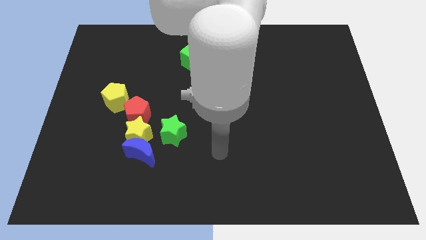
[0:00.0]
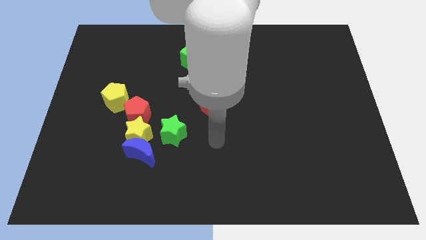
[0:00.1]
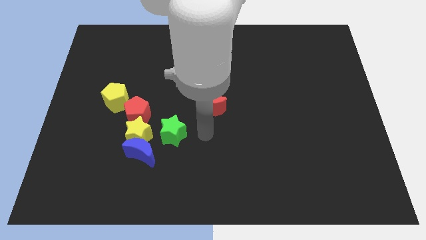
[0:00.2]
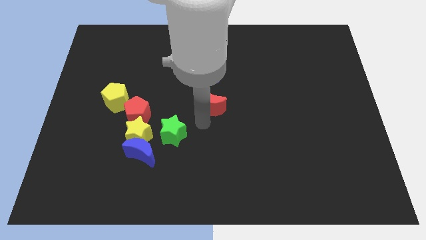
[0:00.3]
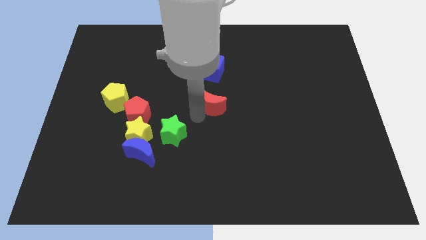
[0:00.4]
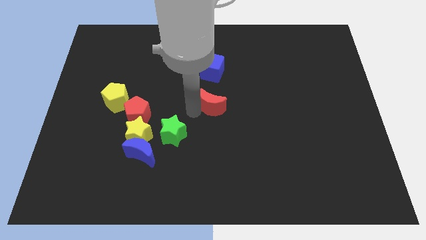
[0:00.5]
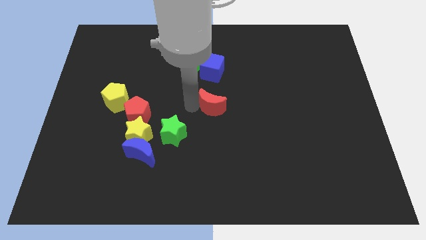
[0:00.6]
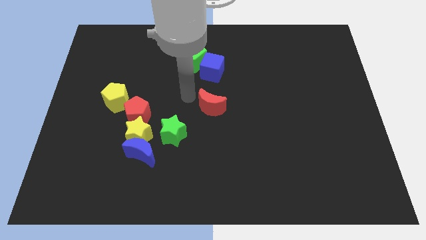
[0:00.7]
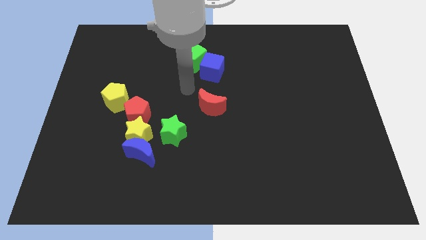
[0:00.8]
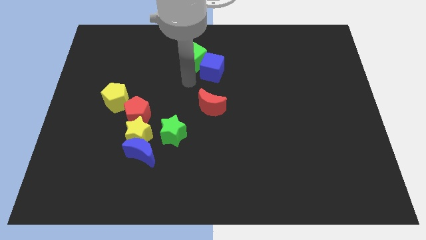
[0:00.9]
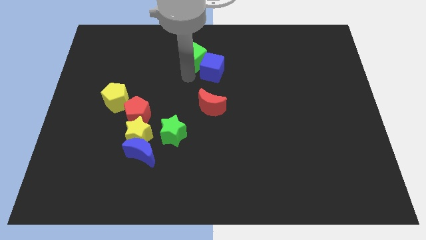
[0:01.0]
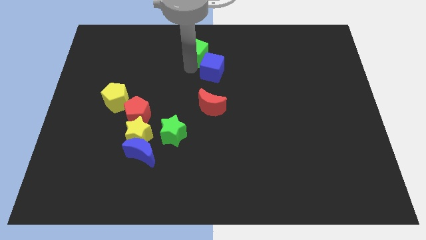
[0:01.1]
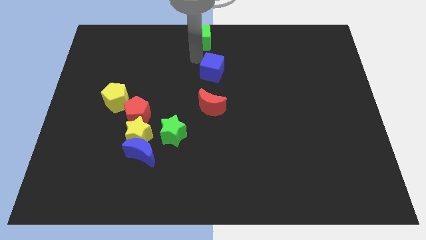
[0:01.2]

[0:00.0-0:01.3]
move the blue cube away from the green cube

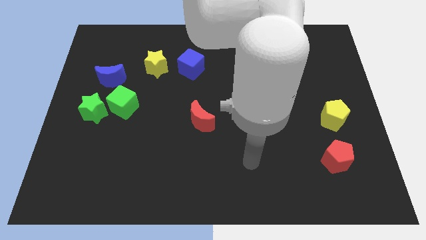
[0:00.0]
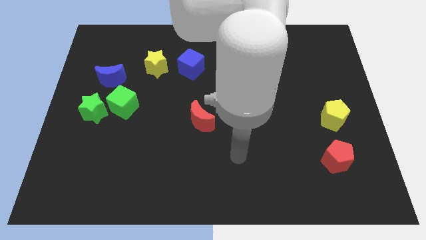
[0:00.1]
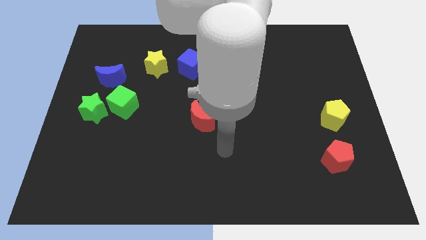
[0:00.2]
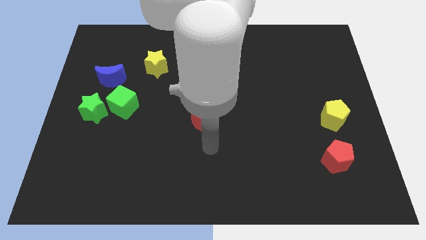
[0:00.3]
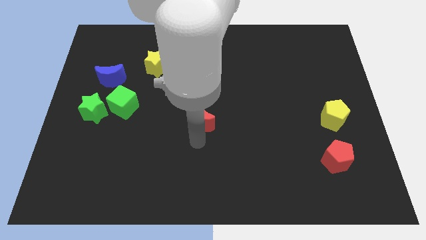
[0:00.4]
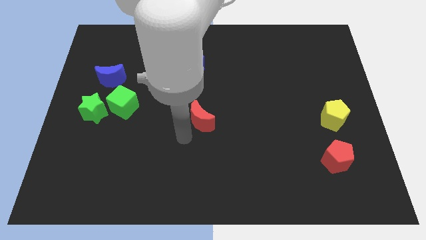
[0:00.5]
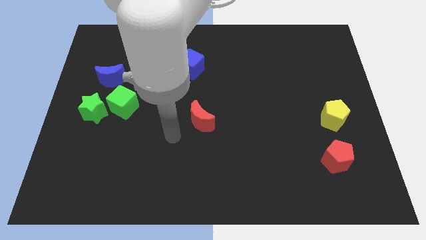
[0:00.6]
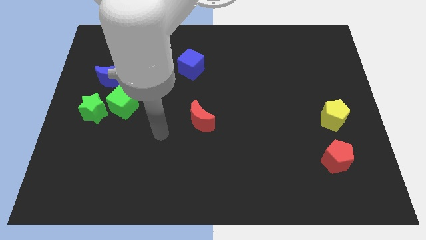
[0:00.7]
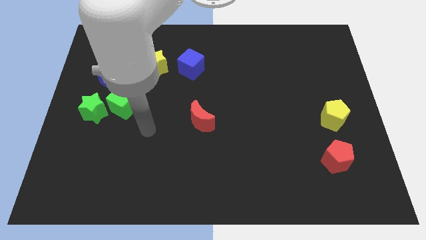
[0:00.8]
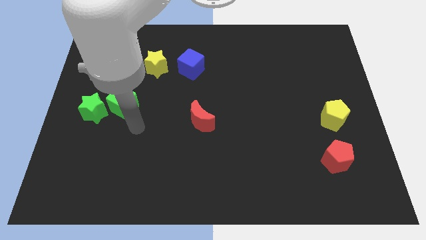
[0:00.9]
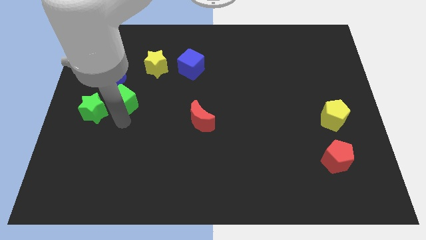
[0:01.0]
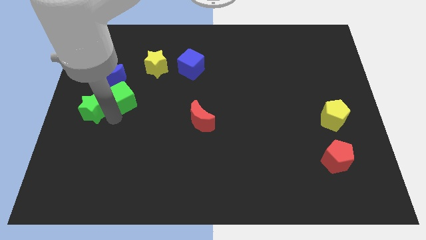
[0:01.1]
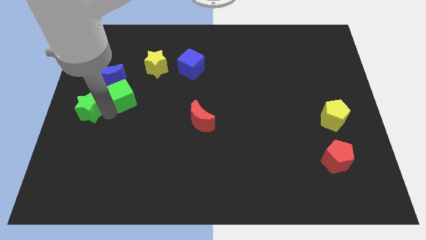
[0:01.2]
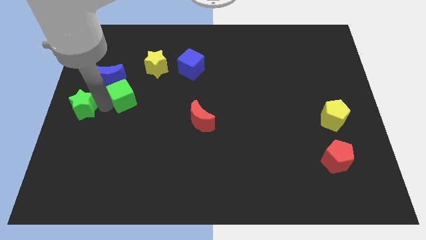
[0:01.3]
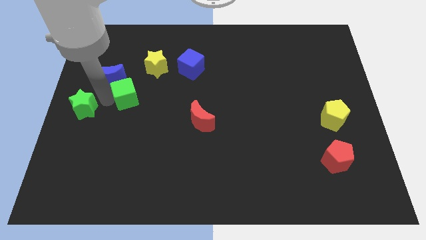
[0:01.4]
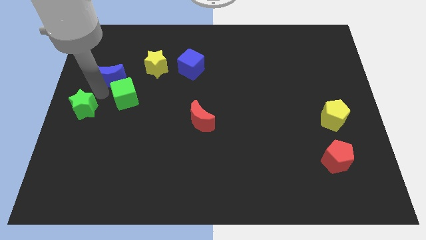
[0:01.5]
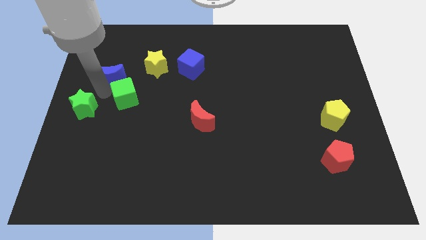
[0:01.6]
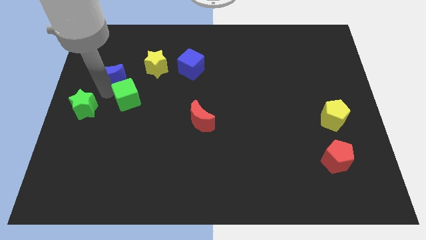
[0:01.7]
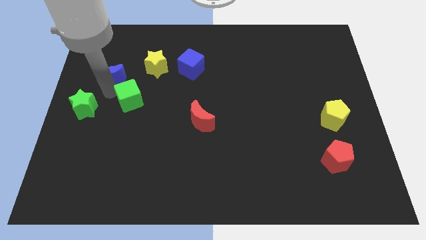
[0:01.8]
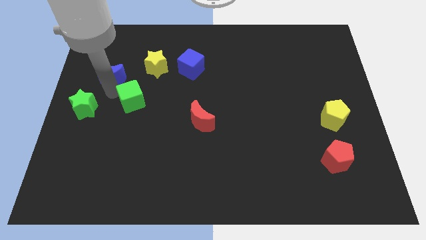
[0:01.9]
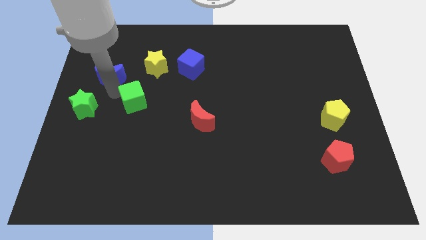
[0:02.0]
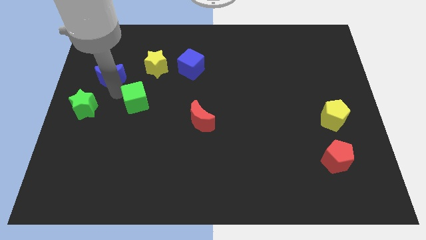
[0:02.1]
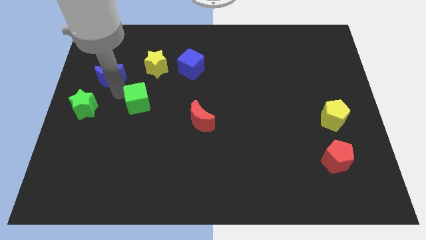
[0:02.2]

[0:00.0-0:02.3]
separate the green cube from the green star and blue moon

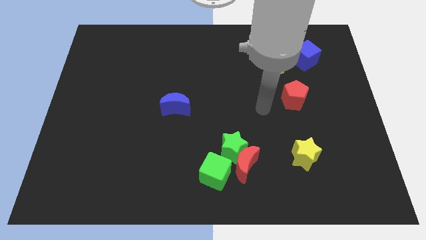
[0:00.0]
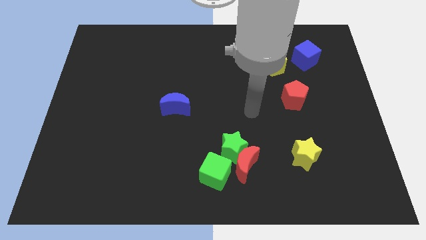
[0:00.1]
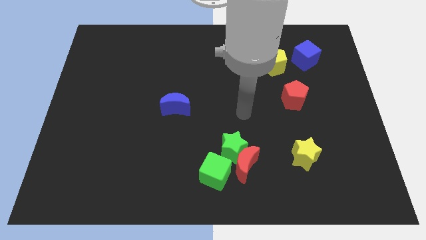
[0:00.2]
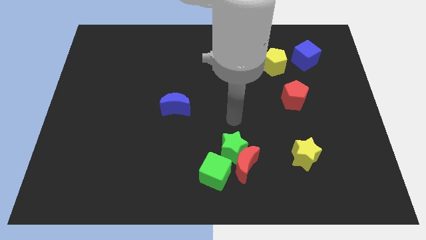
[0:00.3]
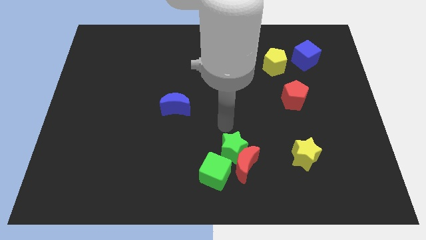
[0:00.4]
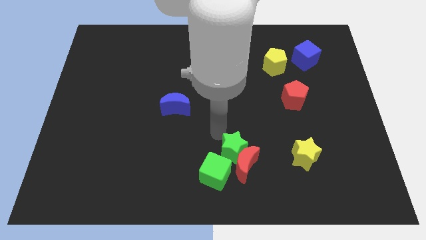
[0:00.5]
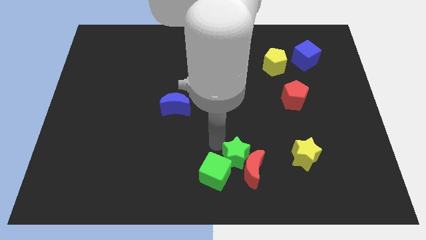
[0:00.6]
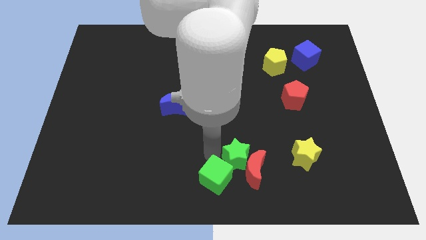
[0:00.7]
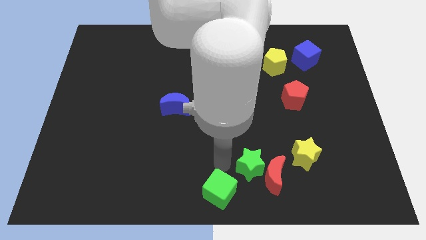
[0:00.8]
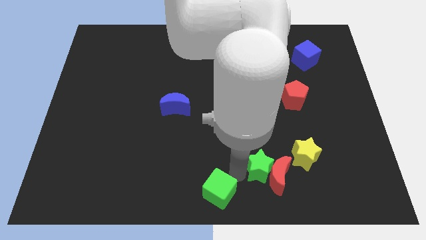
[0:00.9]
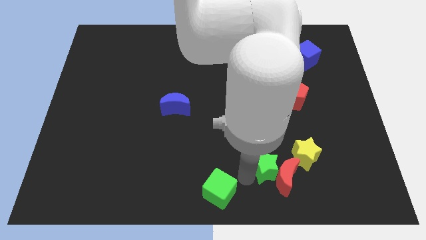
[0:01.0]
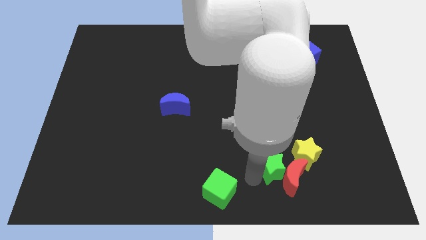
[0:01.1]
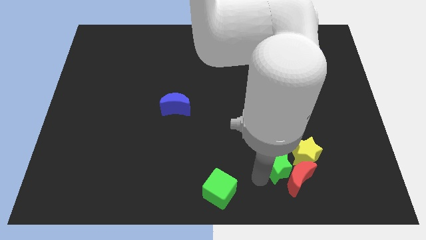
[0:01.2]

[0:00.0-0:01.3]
pull the red moon apart from the green star and green cube

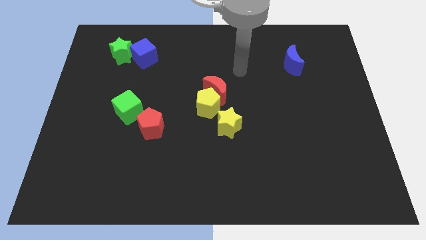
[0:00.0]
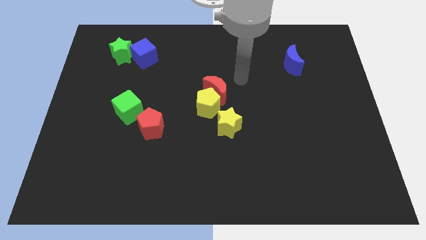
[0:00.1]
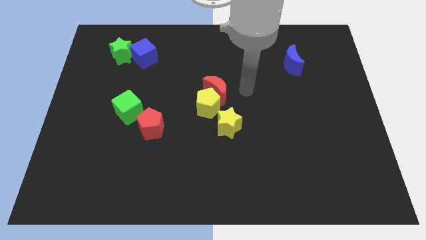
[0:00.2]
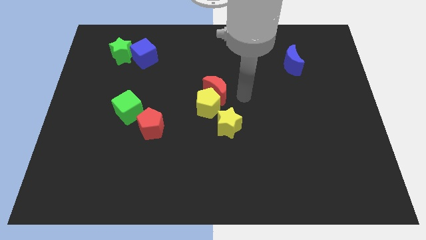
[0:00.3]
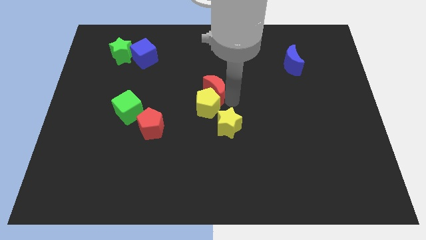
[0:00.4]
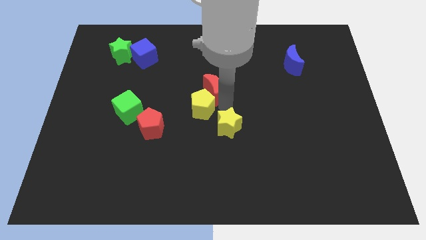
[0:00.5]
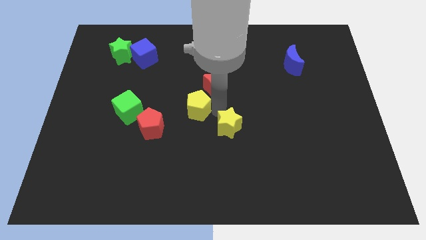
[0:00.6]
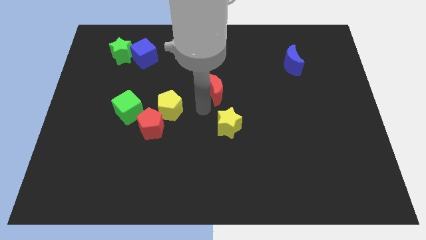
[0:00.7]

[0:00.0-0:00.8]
pull the red moon apart from the yellow pentagon

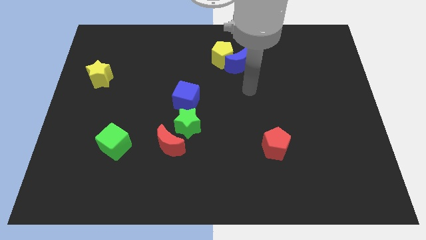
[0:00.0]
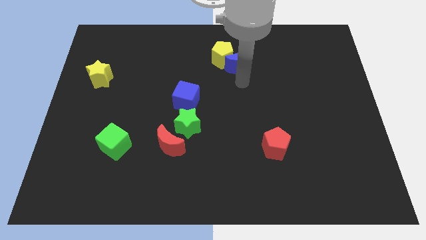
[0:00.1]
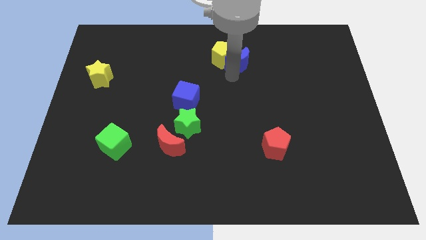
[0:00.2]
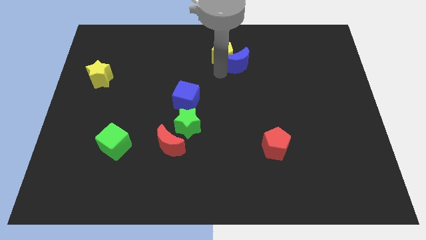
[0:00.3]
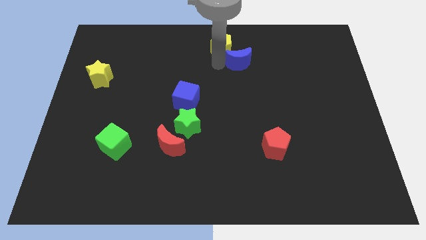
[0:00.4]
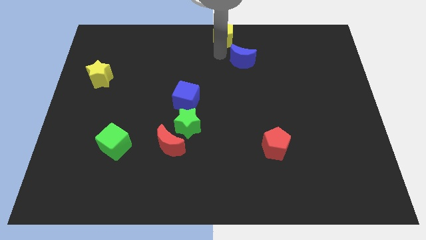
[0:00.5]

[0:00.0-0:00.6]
move the blue moon away from the yellow pentagon

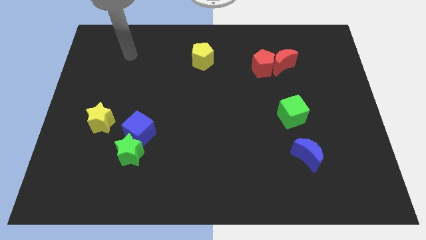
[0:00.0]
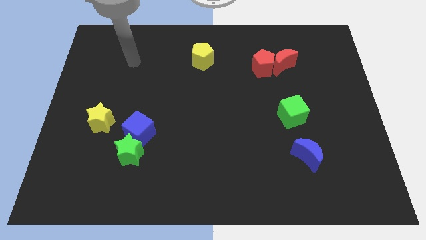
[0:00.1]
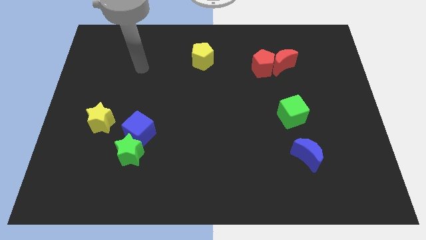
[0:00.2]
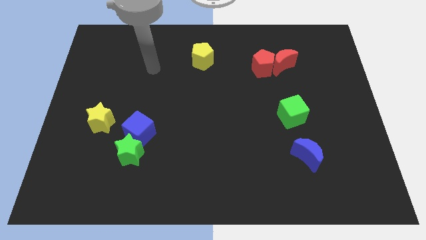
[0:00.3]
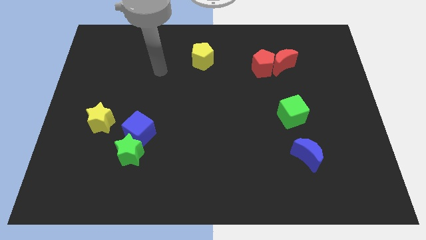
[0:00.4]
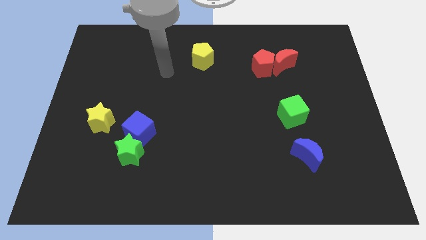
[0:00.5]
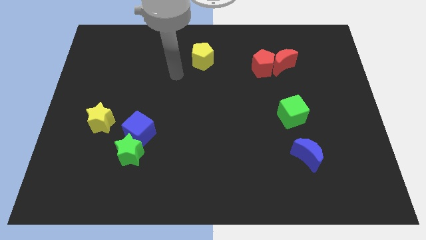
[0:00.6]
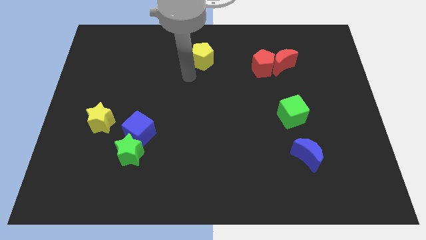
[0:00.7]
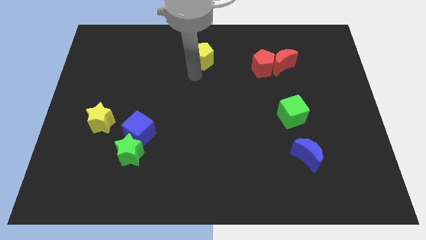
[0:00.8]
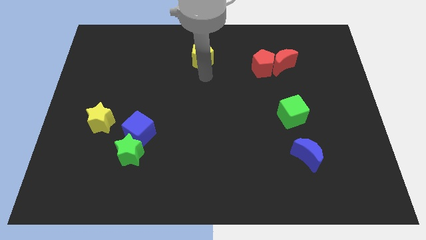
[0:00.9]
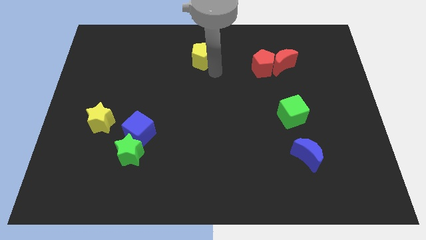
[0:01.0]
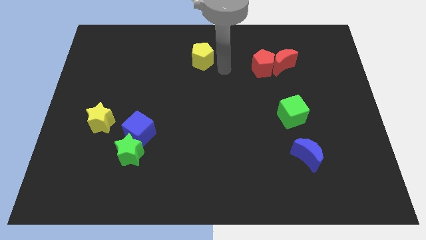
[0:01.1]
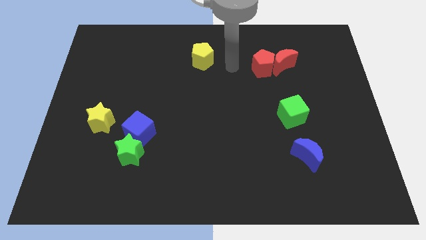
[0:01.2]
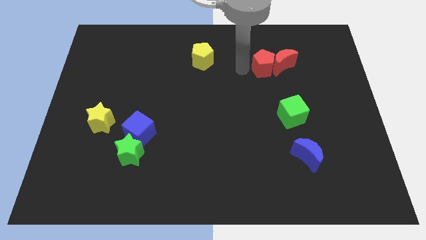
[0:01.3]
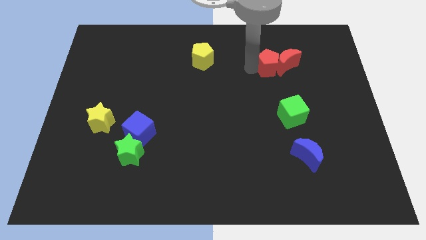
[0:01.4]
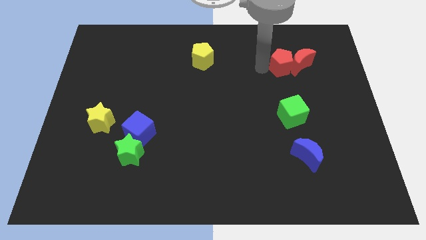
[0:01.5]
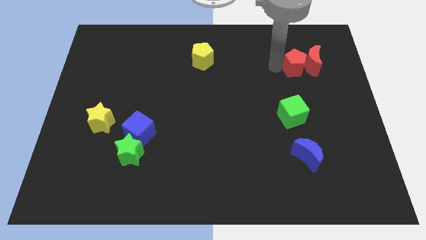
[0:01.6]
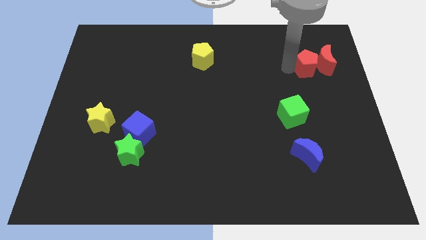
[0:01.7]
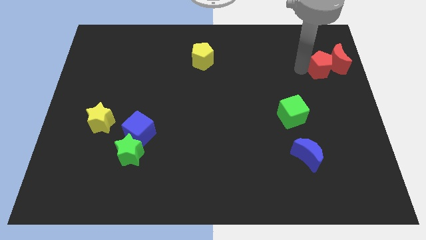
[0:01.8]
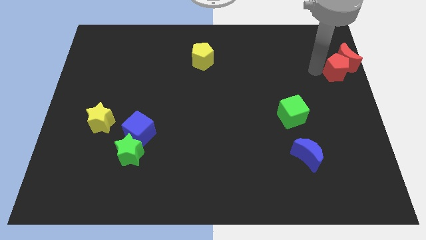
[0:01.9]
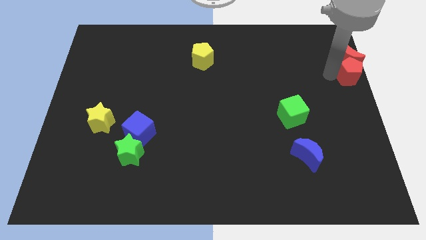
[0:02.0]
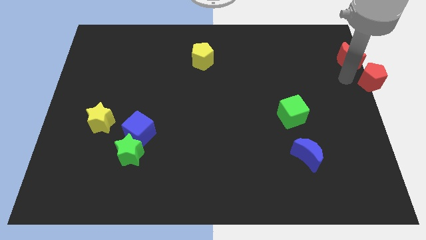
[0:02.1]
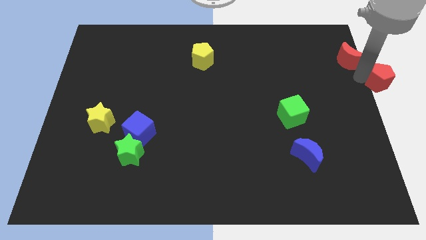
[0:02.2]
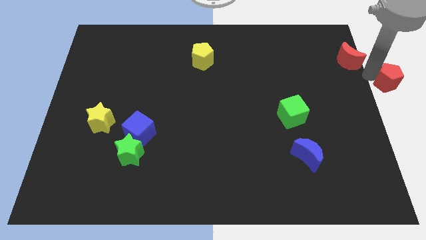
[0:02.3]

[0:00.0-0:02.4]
move the red moon away from the red pentagon

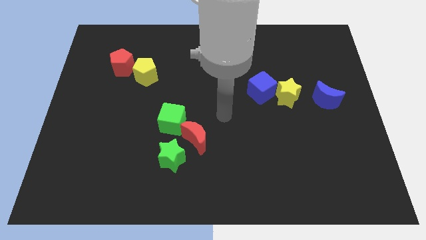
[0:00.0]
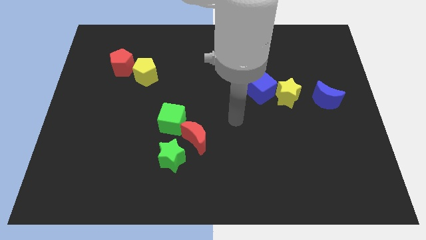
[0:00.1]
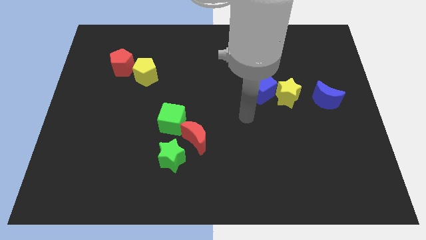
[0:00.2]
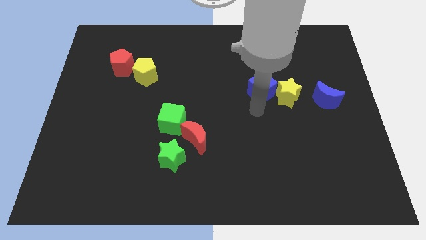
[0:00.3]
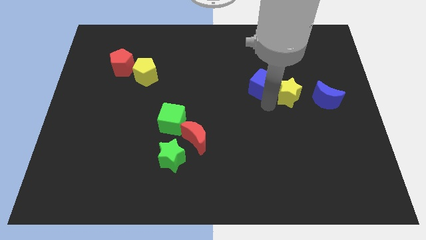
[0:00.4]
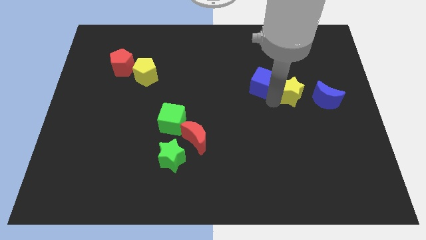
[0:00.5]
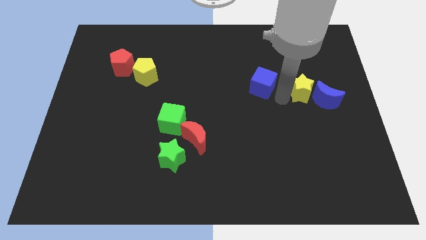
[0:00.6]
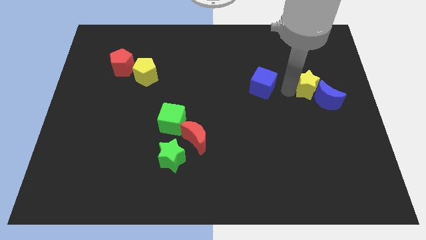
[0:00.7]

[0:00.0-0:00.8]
separate the blue cube from the yellow star
